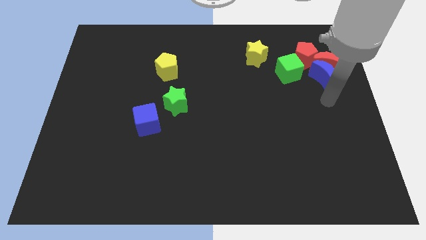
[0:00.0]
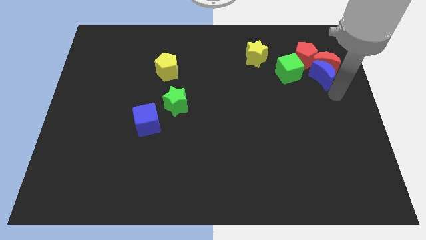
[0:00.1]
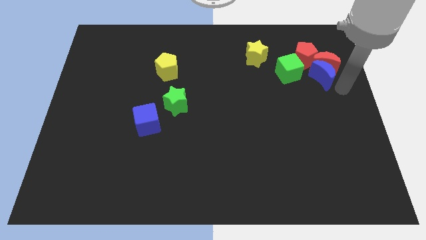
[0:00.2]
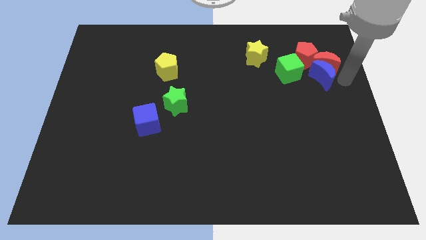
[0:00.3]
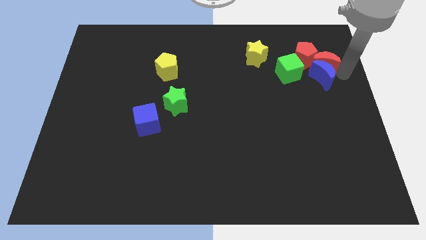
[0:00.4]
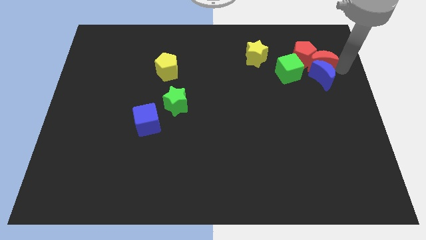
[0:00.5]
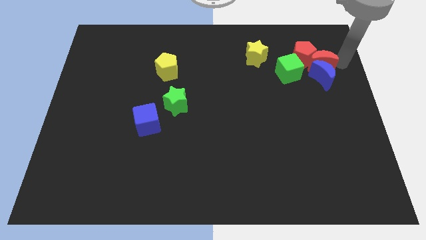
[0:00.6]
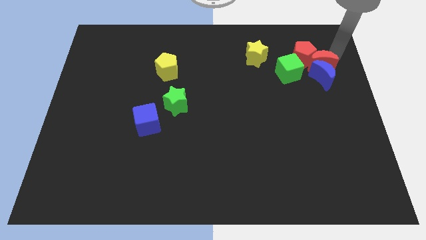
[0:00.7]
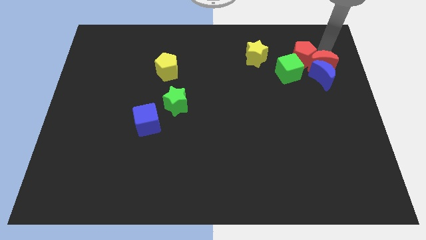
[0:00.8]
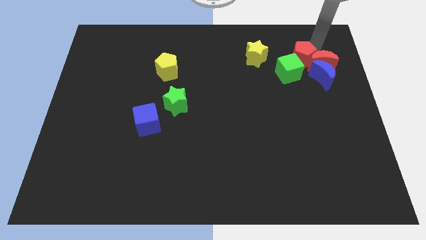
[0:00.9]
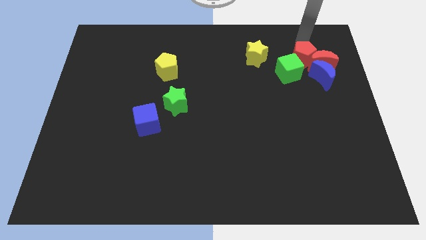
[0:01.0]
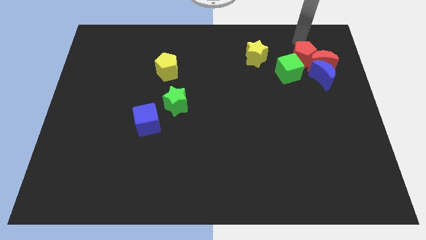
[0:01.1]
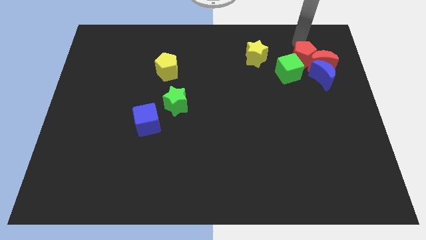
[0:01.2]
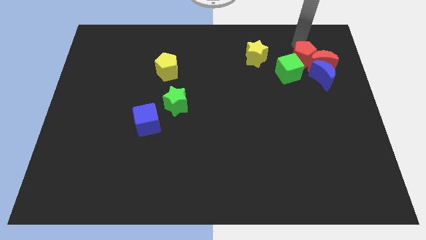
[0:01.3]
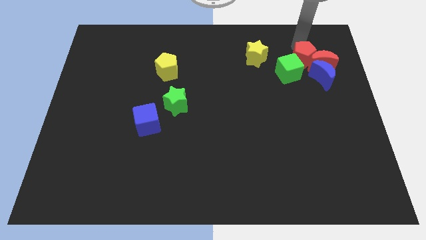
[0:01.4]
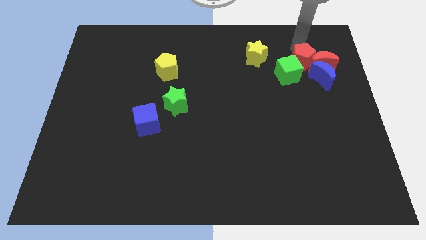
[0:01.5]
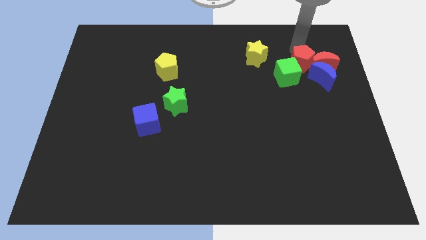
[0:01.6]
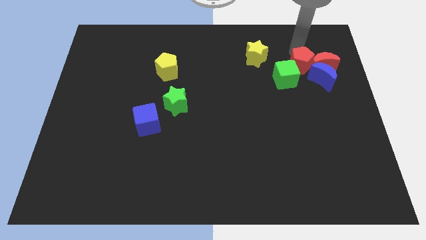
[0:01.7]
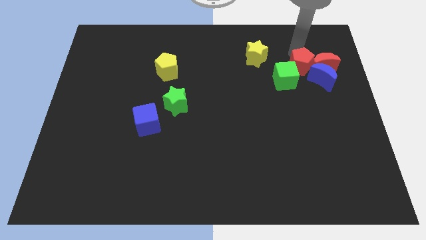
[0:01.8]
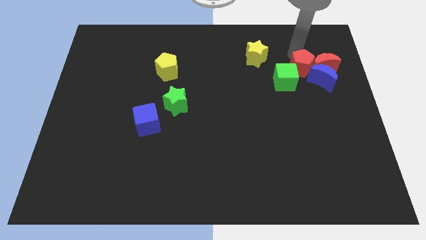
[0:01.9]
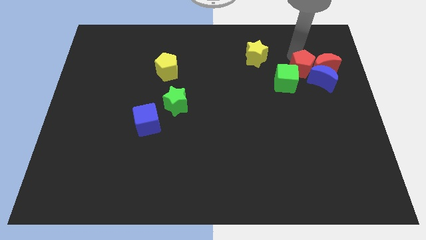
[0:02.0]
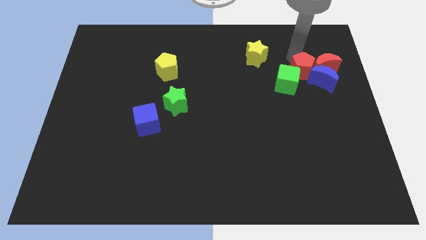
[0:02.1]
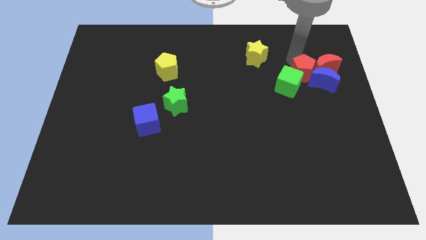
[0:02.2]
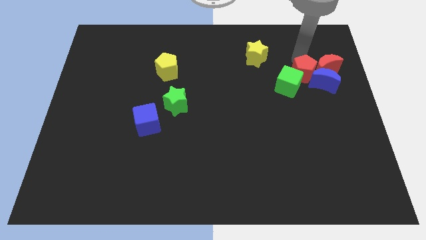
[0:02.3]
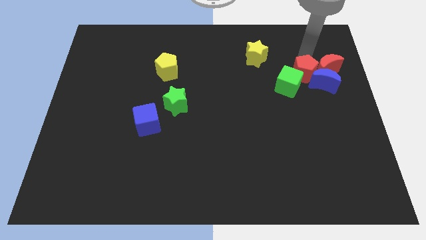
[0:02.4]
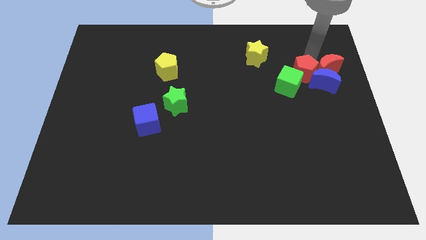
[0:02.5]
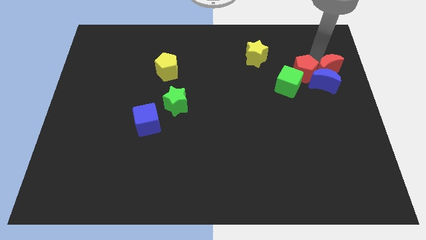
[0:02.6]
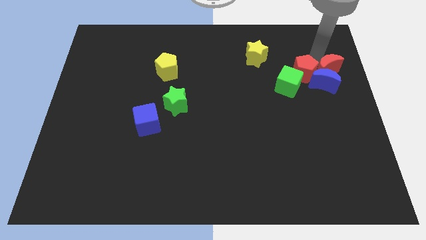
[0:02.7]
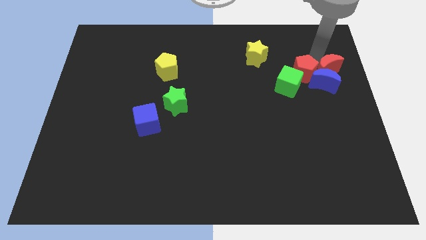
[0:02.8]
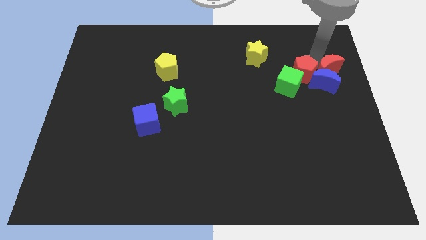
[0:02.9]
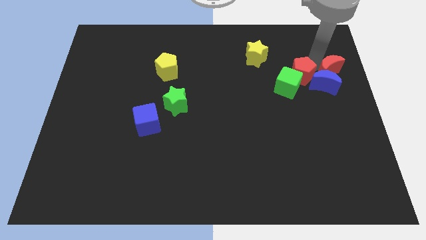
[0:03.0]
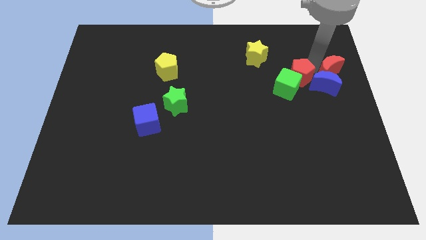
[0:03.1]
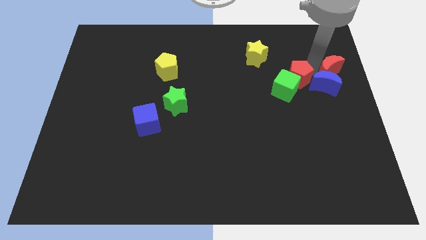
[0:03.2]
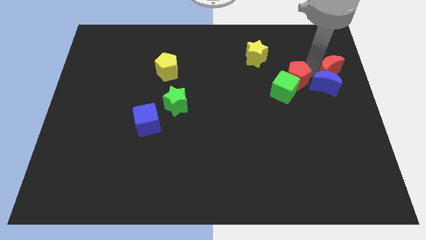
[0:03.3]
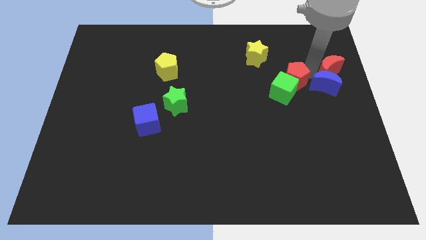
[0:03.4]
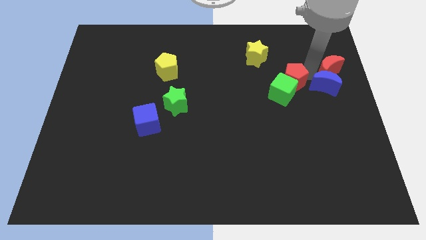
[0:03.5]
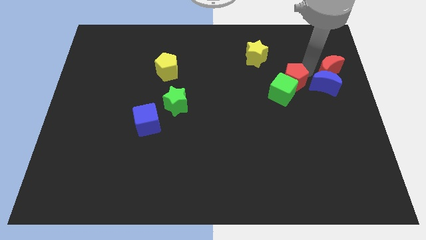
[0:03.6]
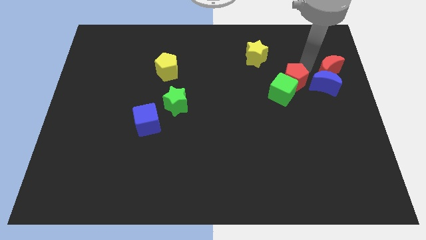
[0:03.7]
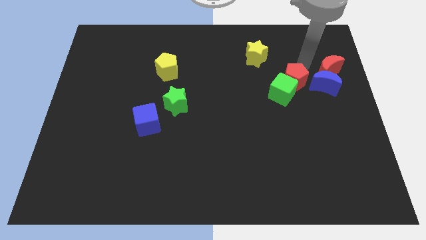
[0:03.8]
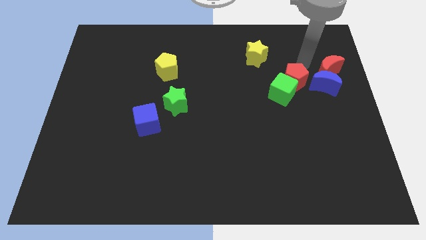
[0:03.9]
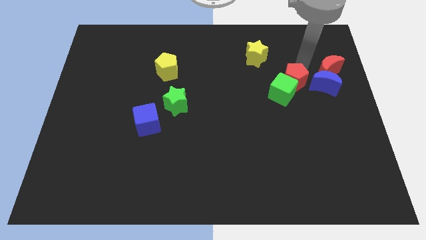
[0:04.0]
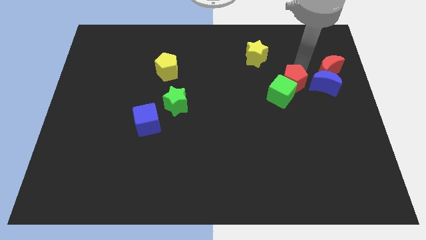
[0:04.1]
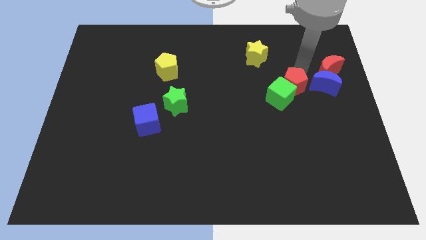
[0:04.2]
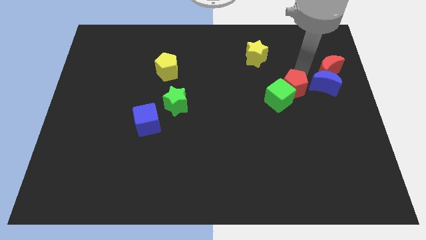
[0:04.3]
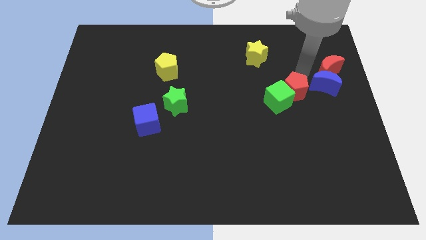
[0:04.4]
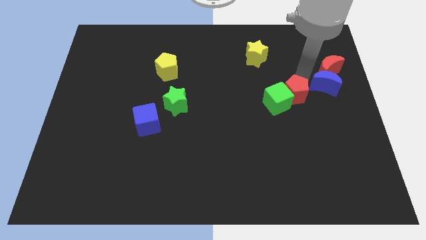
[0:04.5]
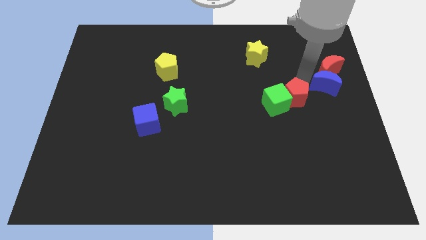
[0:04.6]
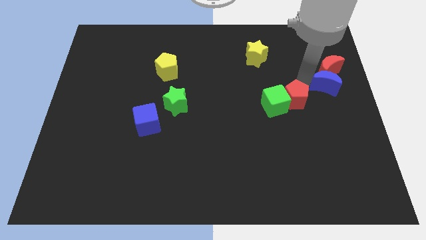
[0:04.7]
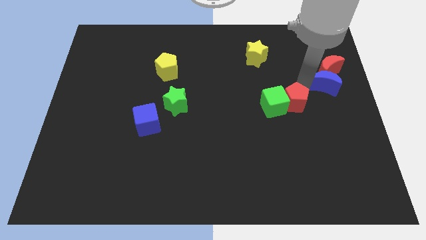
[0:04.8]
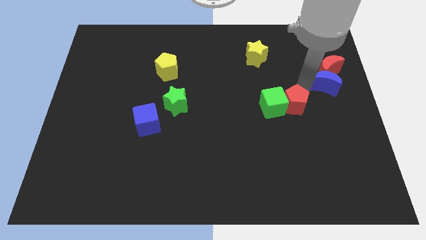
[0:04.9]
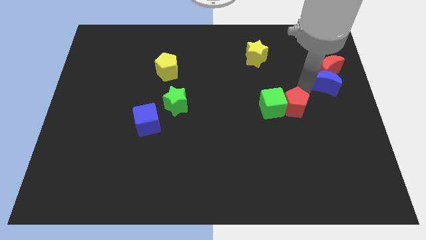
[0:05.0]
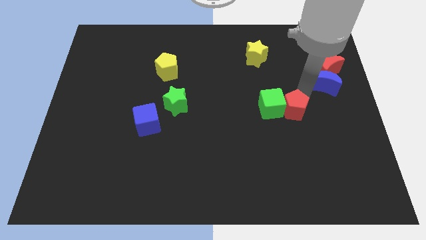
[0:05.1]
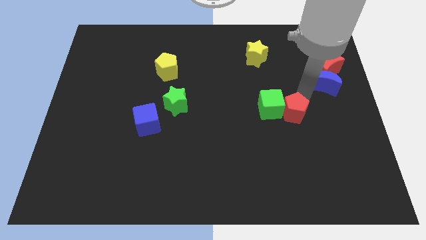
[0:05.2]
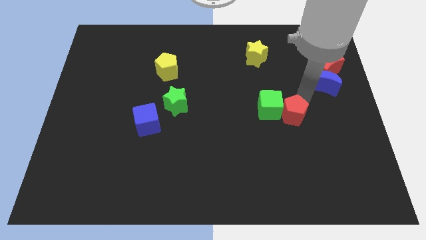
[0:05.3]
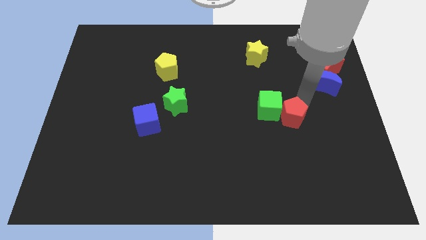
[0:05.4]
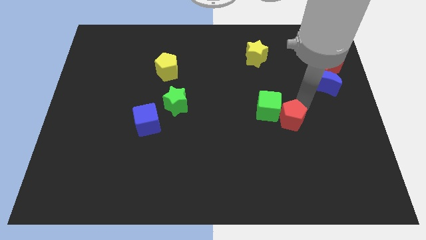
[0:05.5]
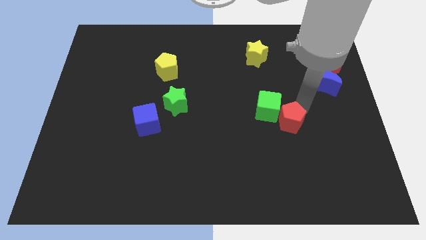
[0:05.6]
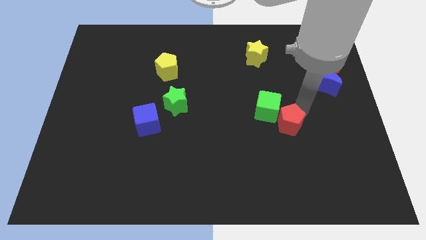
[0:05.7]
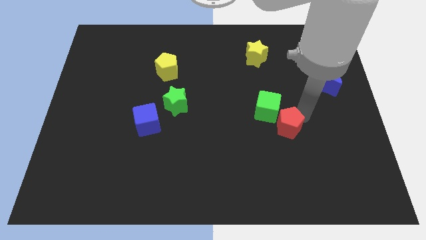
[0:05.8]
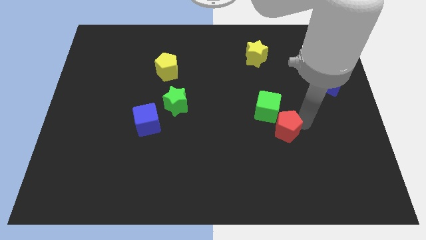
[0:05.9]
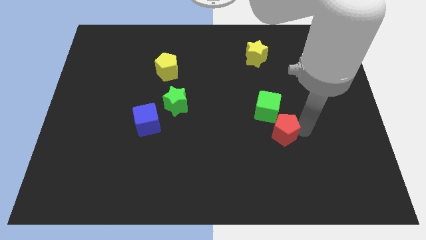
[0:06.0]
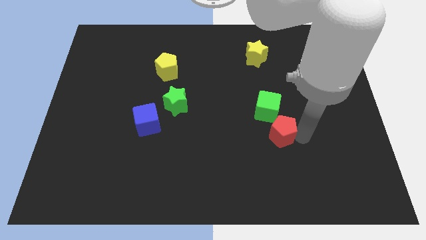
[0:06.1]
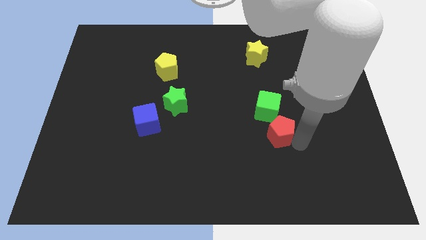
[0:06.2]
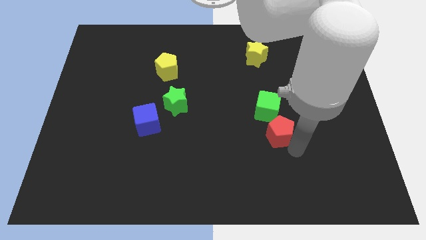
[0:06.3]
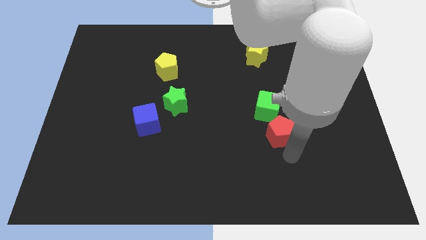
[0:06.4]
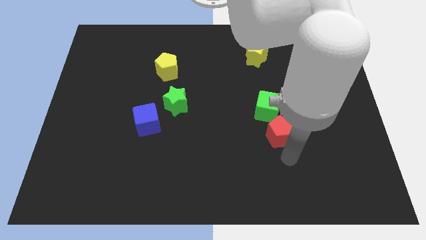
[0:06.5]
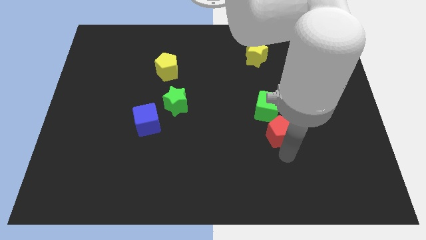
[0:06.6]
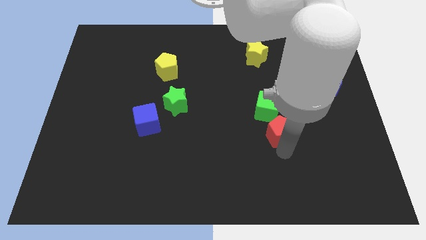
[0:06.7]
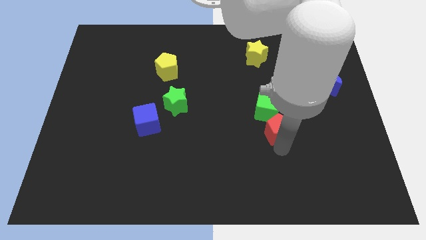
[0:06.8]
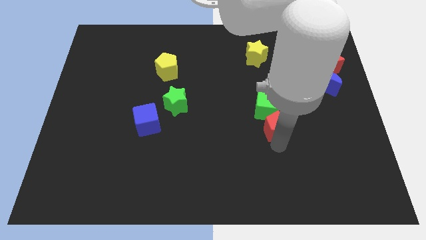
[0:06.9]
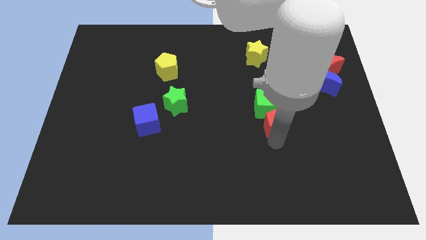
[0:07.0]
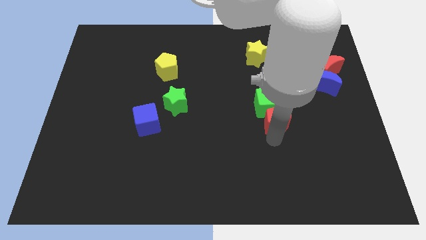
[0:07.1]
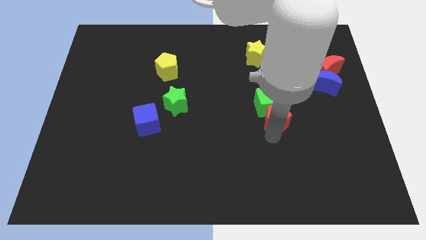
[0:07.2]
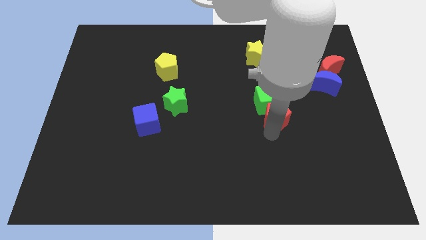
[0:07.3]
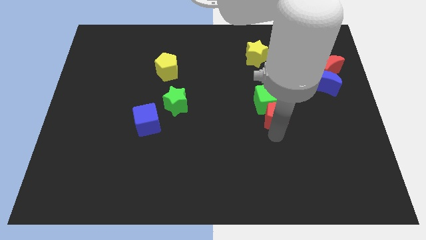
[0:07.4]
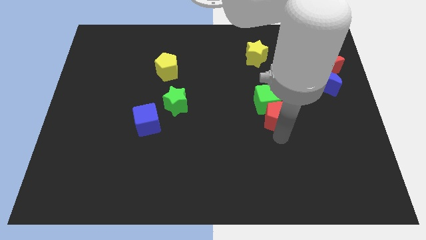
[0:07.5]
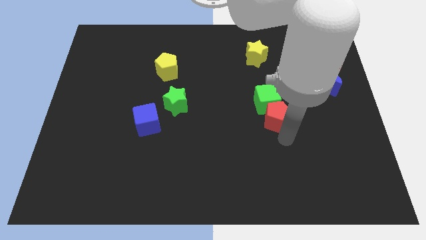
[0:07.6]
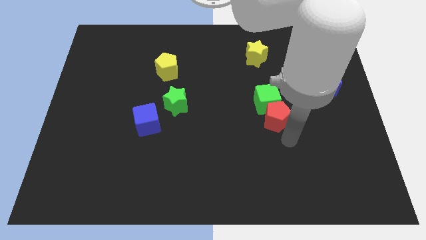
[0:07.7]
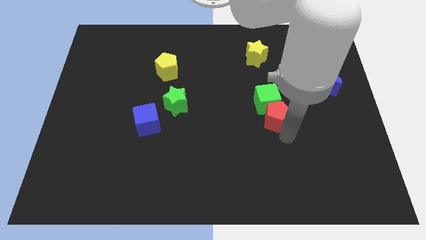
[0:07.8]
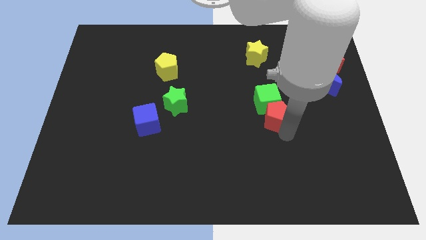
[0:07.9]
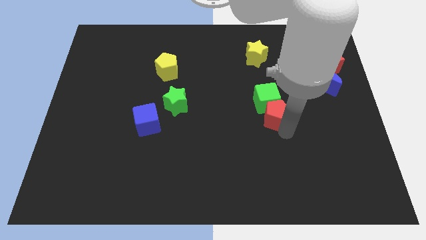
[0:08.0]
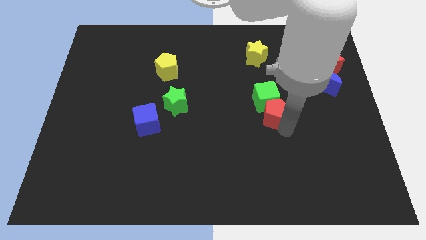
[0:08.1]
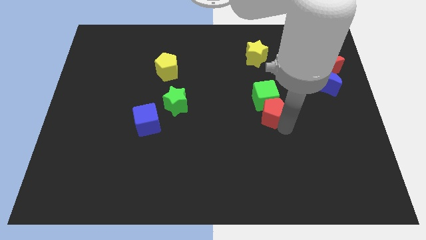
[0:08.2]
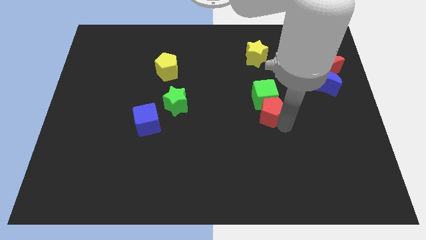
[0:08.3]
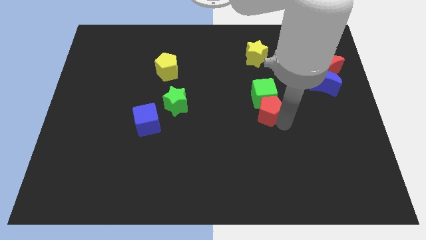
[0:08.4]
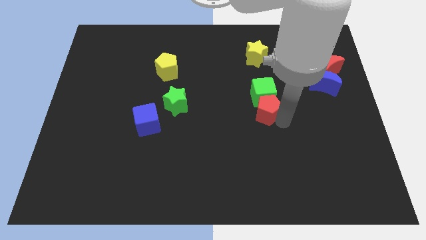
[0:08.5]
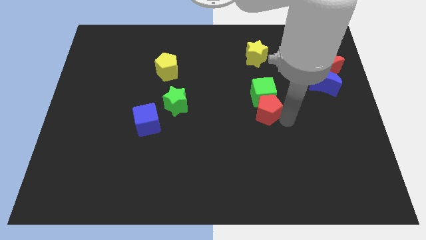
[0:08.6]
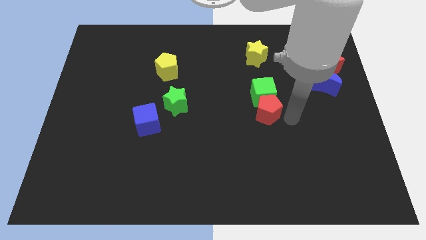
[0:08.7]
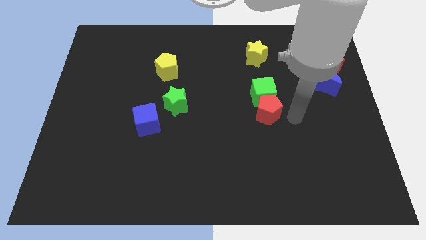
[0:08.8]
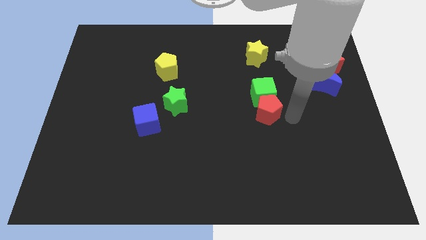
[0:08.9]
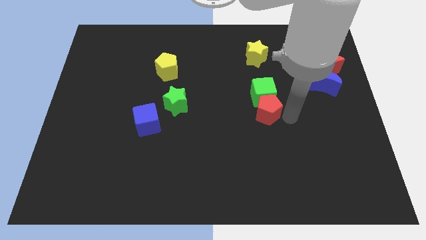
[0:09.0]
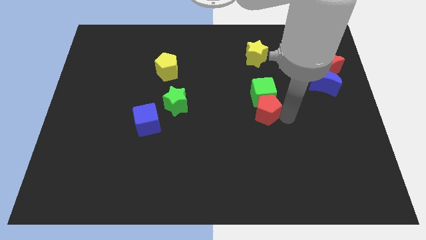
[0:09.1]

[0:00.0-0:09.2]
move the red pentagon downwards and then left
